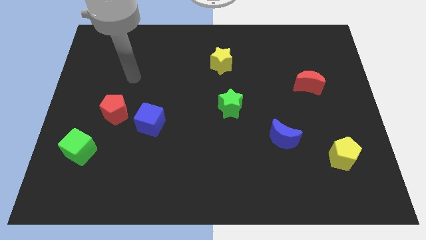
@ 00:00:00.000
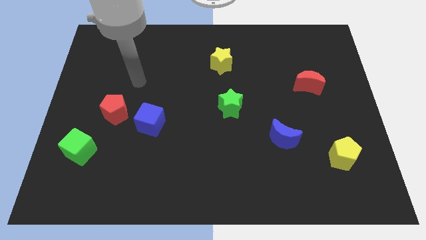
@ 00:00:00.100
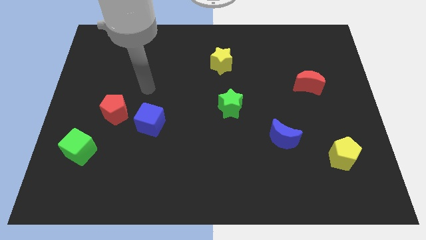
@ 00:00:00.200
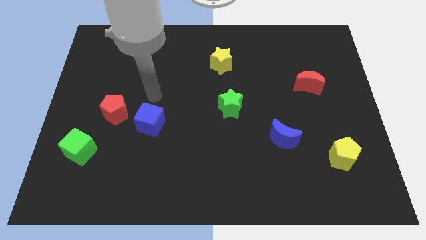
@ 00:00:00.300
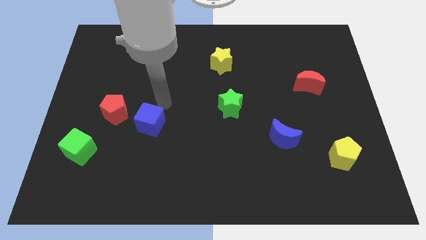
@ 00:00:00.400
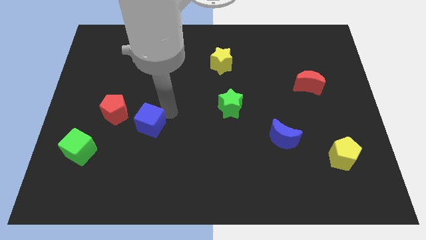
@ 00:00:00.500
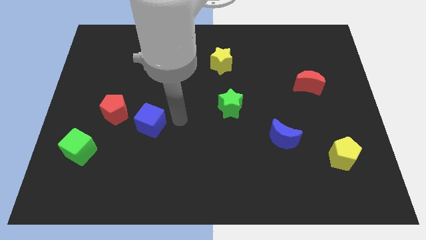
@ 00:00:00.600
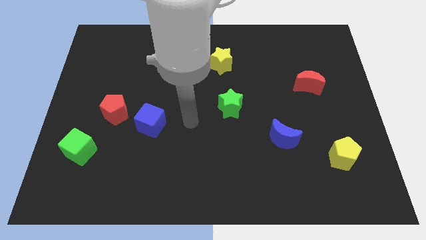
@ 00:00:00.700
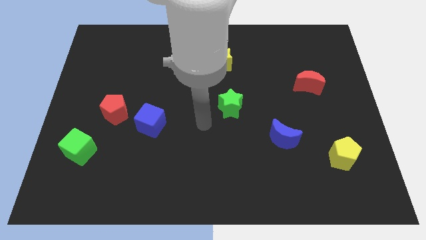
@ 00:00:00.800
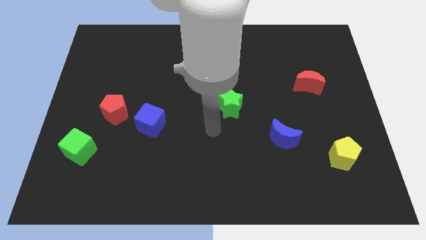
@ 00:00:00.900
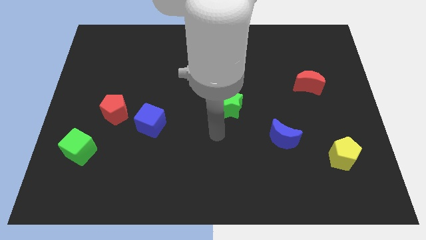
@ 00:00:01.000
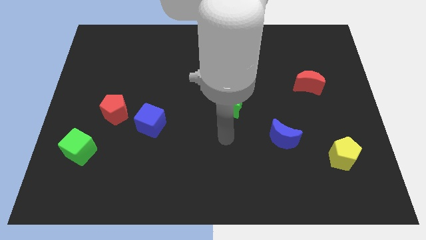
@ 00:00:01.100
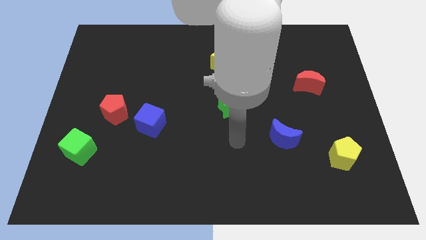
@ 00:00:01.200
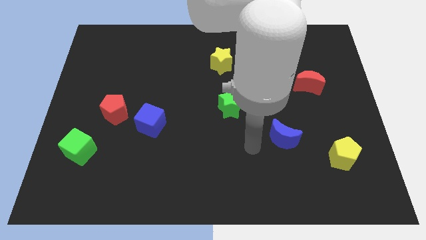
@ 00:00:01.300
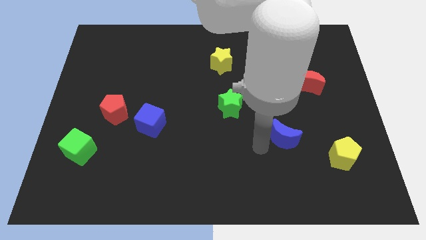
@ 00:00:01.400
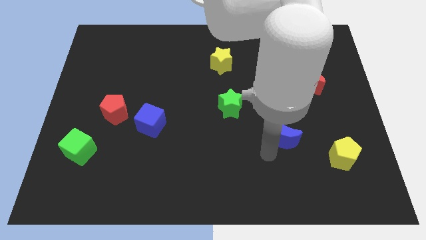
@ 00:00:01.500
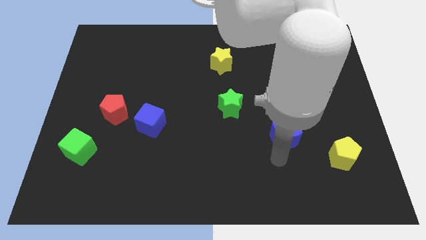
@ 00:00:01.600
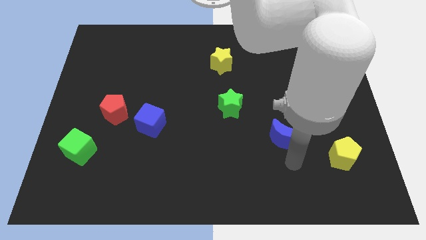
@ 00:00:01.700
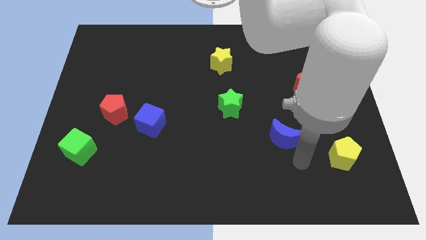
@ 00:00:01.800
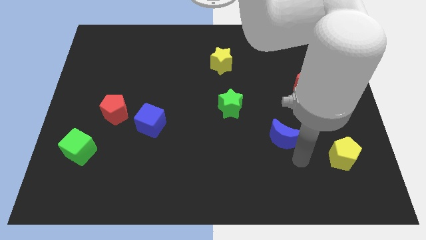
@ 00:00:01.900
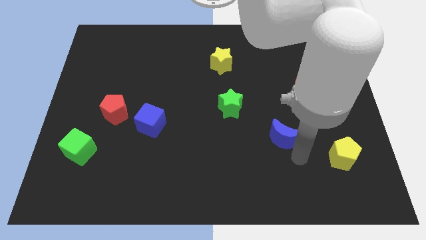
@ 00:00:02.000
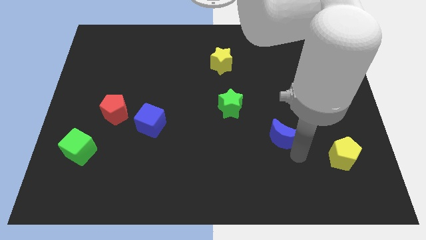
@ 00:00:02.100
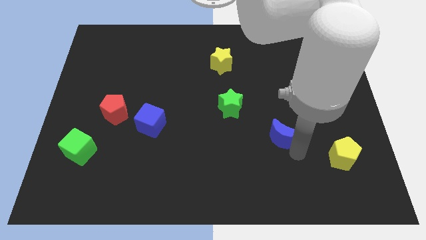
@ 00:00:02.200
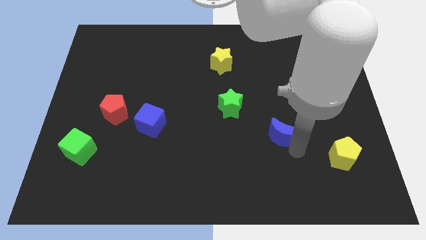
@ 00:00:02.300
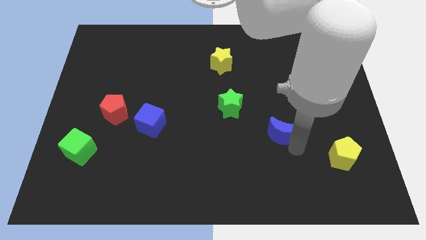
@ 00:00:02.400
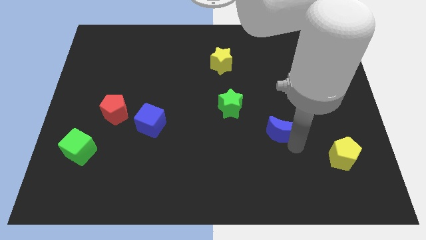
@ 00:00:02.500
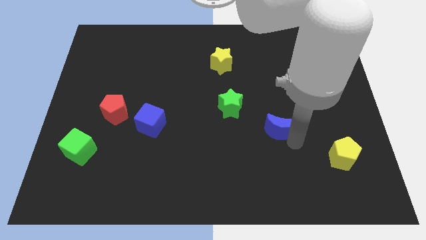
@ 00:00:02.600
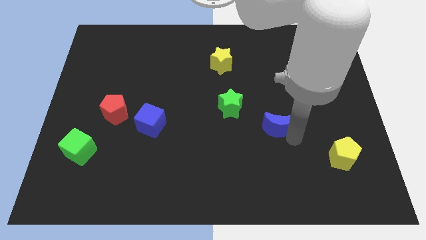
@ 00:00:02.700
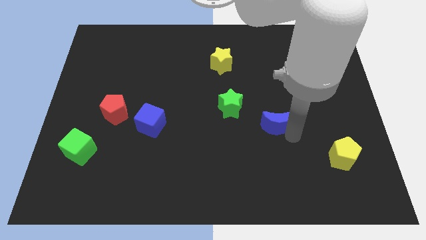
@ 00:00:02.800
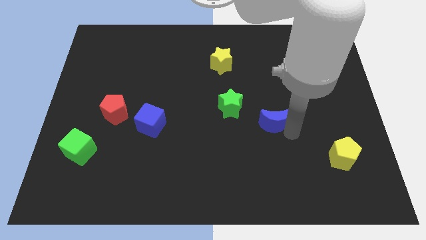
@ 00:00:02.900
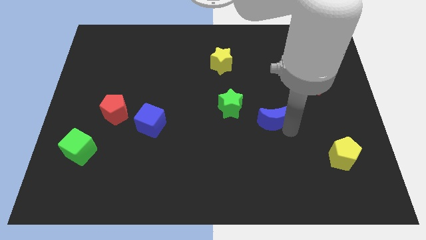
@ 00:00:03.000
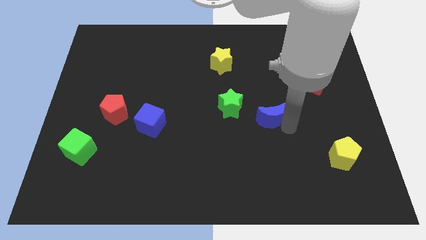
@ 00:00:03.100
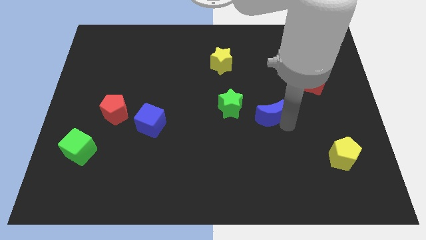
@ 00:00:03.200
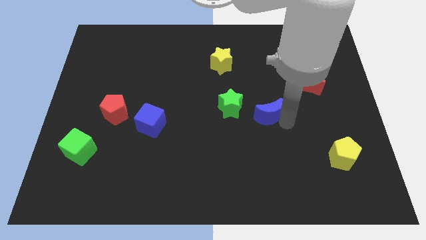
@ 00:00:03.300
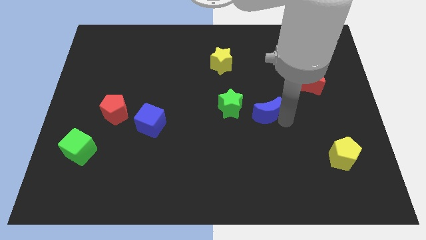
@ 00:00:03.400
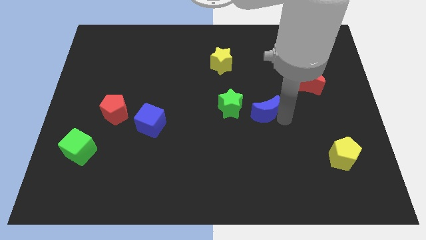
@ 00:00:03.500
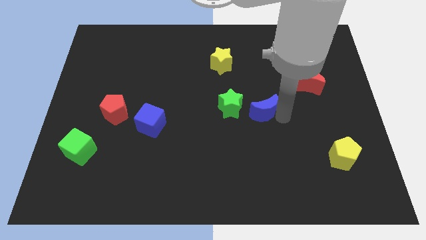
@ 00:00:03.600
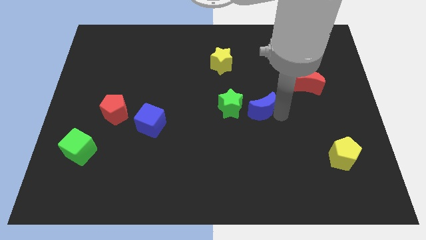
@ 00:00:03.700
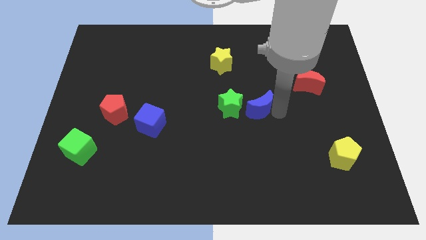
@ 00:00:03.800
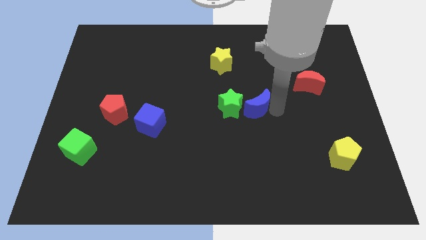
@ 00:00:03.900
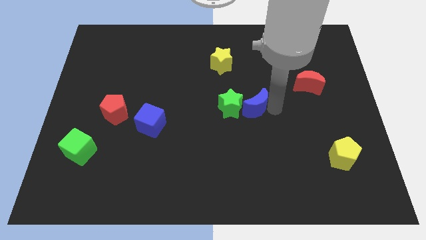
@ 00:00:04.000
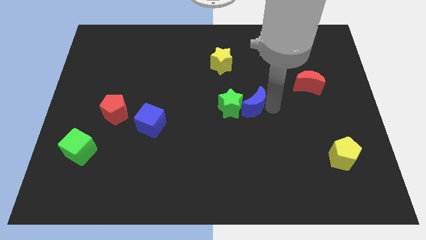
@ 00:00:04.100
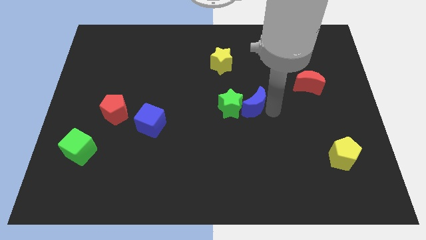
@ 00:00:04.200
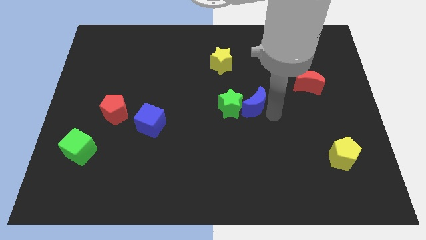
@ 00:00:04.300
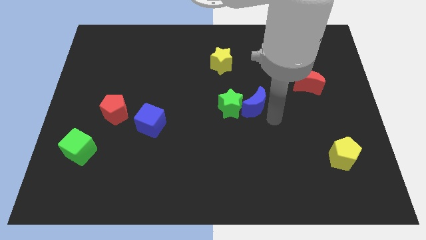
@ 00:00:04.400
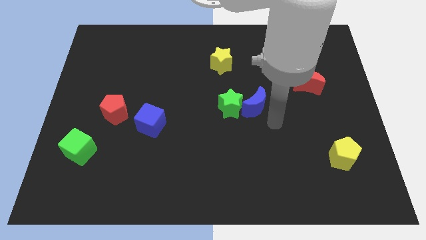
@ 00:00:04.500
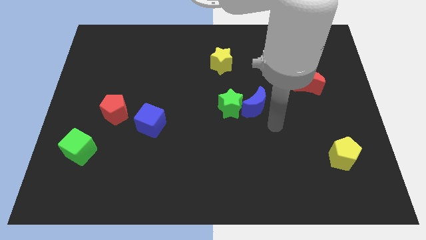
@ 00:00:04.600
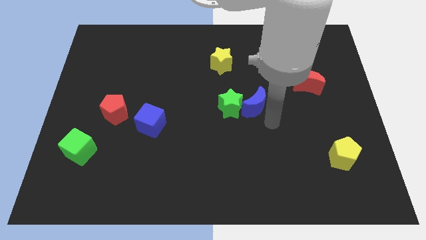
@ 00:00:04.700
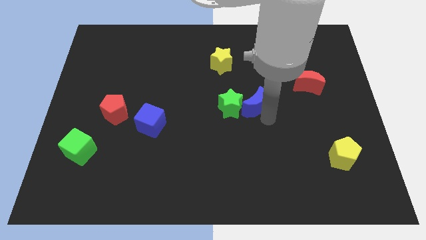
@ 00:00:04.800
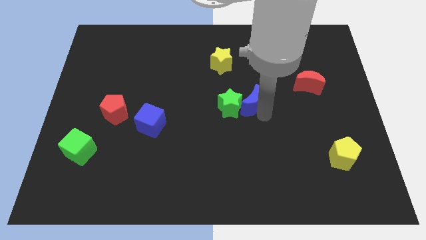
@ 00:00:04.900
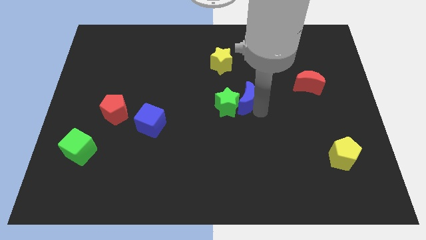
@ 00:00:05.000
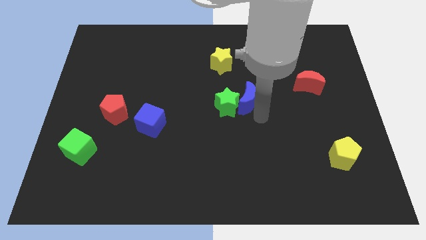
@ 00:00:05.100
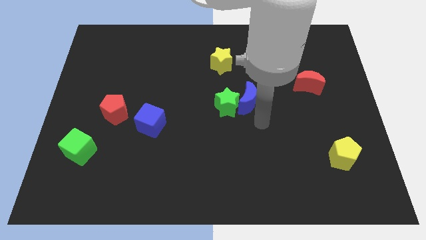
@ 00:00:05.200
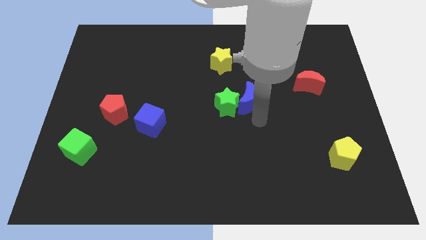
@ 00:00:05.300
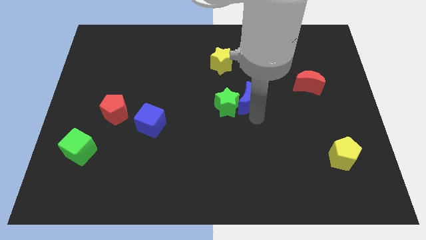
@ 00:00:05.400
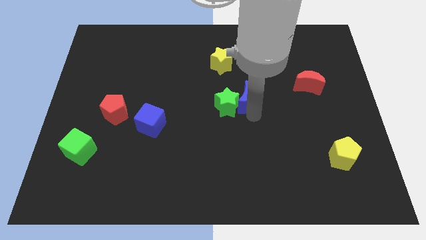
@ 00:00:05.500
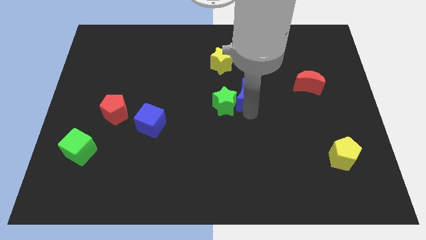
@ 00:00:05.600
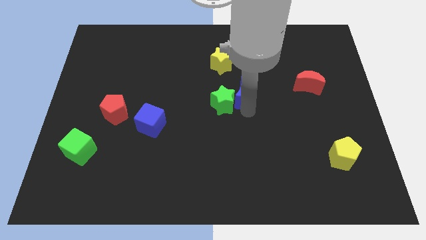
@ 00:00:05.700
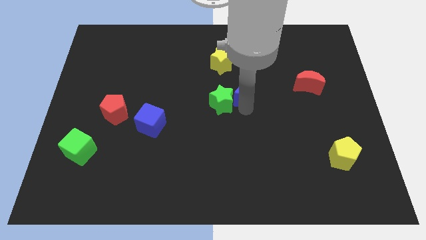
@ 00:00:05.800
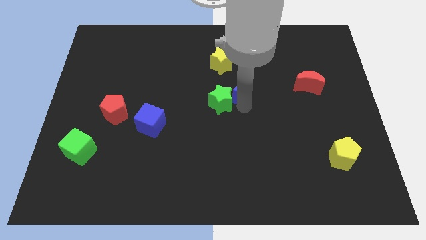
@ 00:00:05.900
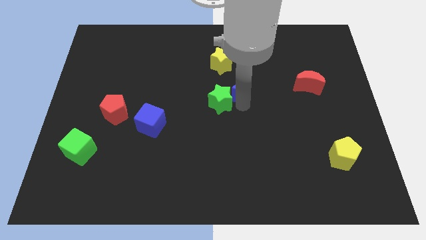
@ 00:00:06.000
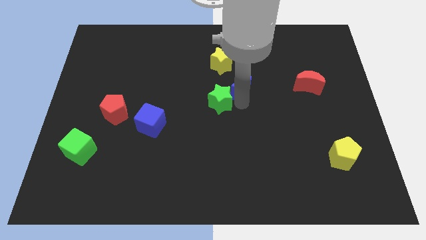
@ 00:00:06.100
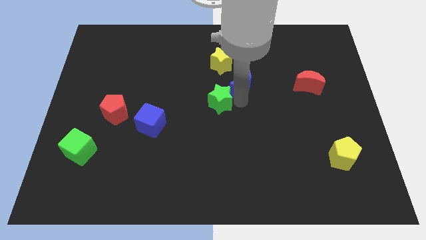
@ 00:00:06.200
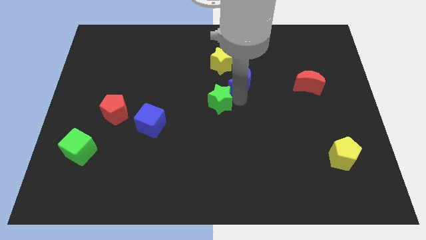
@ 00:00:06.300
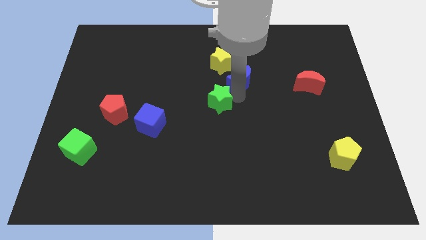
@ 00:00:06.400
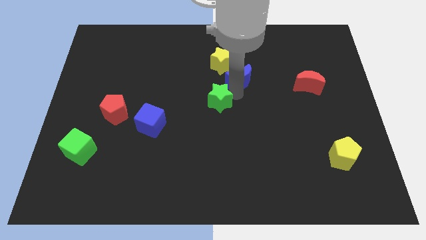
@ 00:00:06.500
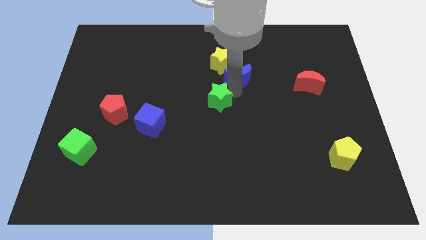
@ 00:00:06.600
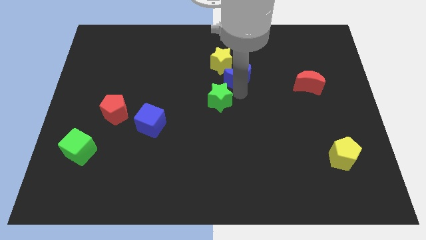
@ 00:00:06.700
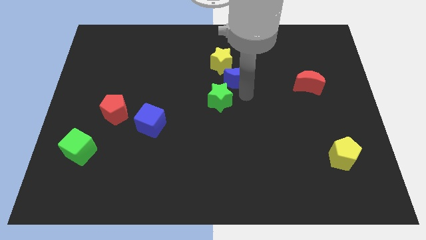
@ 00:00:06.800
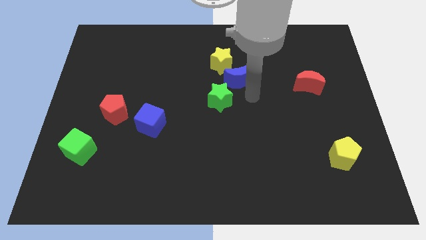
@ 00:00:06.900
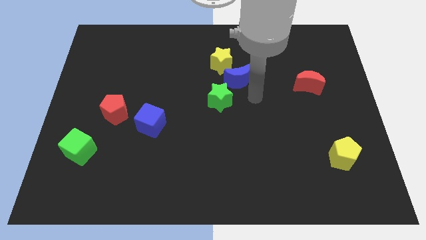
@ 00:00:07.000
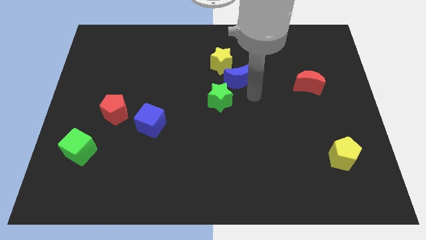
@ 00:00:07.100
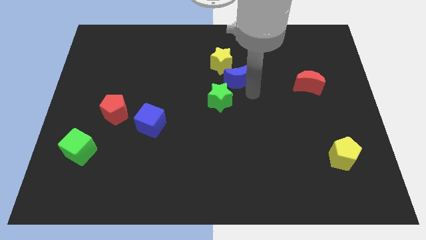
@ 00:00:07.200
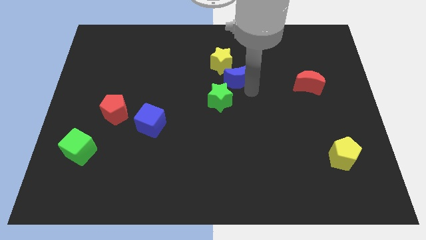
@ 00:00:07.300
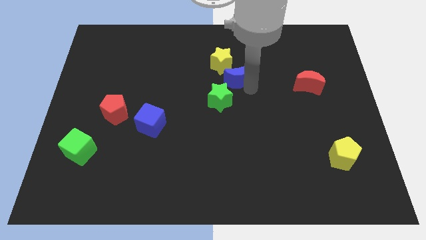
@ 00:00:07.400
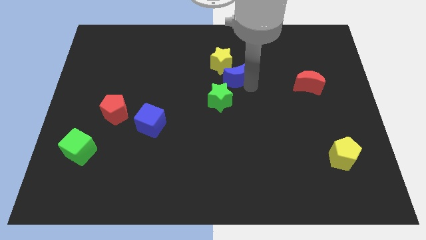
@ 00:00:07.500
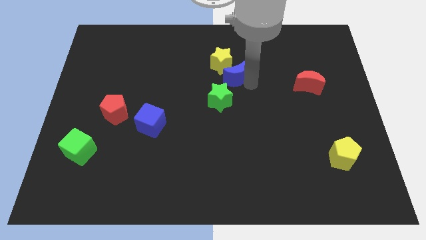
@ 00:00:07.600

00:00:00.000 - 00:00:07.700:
push the blue moon towards the yellow star
